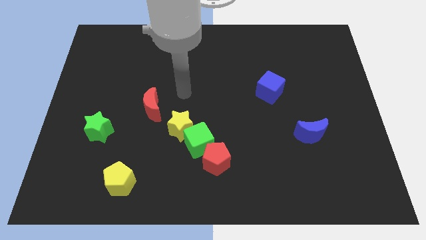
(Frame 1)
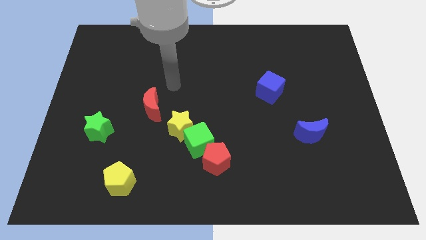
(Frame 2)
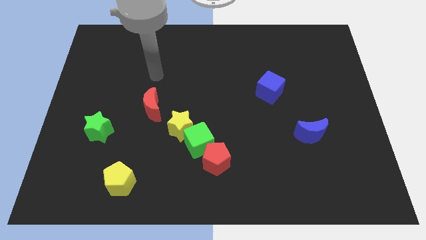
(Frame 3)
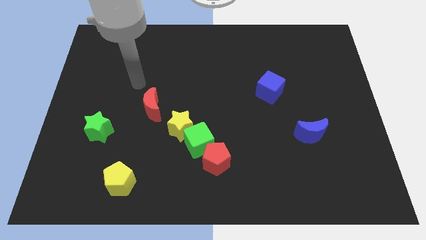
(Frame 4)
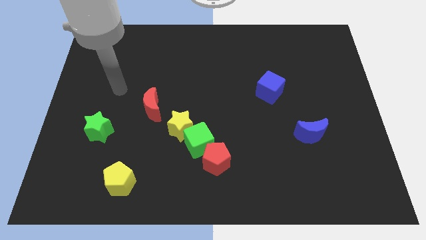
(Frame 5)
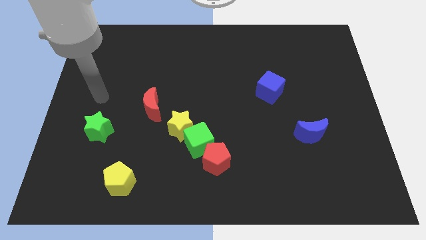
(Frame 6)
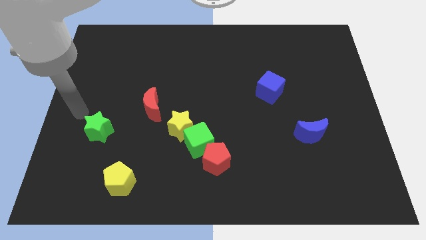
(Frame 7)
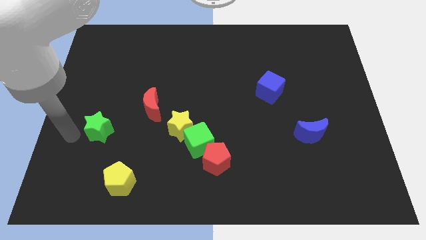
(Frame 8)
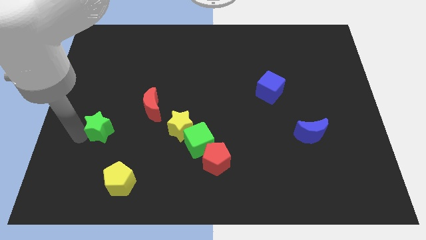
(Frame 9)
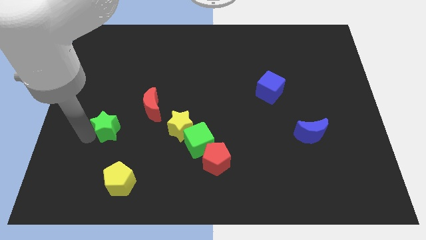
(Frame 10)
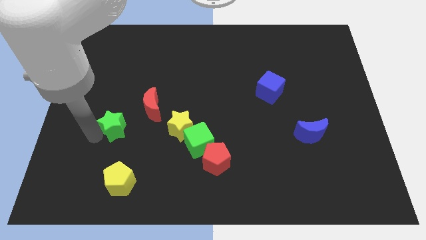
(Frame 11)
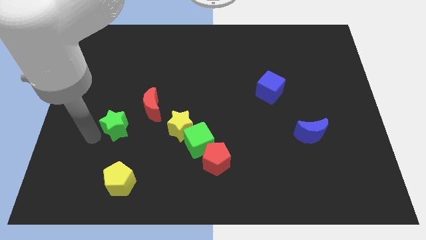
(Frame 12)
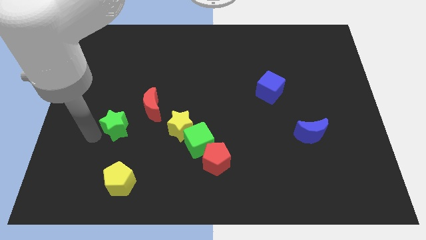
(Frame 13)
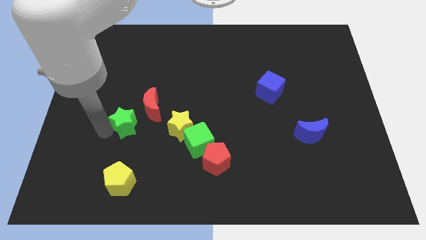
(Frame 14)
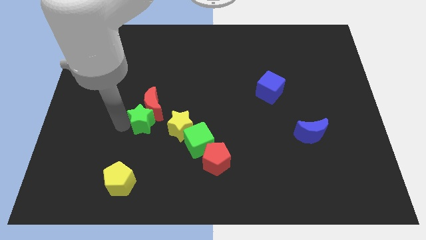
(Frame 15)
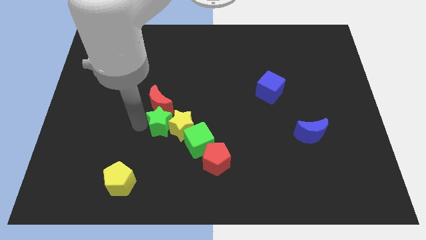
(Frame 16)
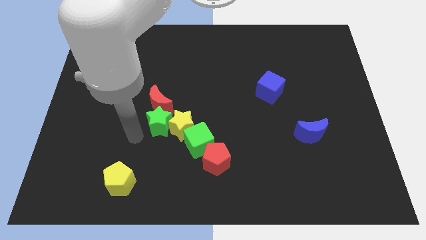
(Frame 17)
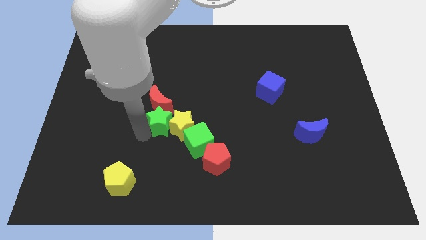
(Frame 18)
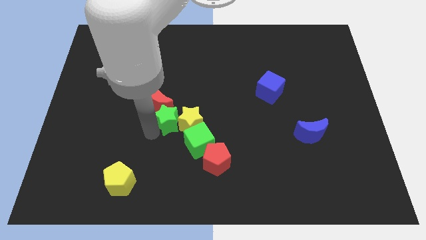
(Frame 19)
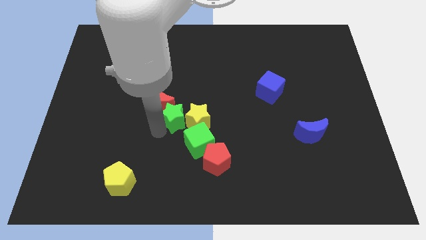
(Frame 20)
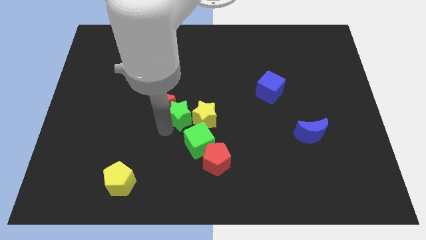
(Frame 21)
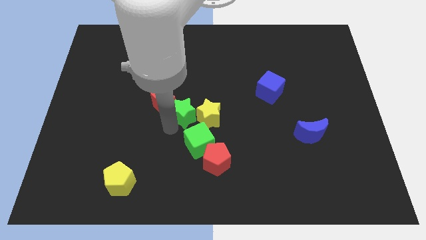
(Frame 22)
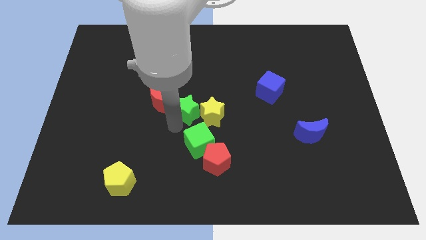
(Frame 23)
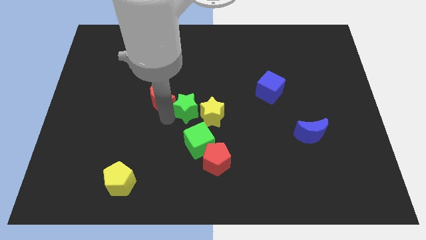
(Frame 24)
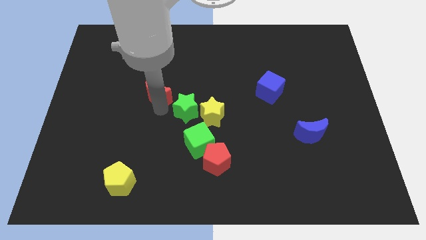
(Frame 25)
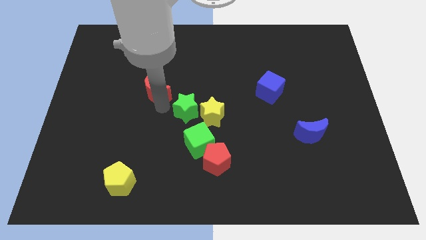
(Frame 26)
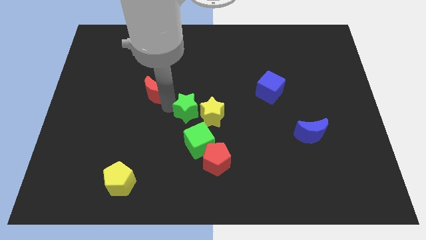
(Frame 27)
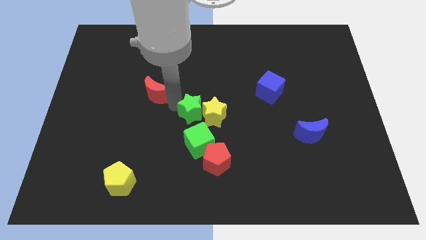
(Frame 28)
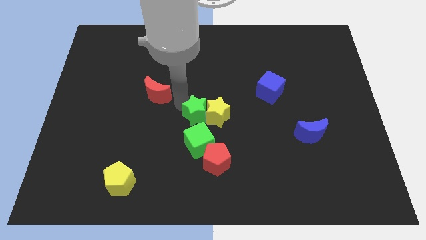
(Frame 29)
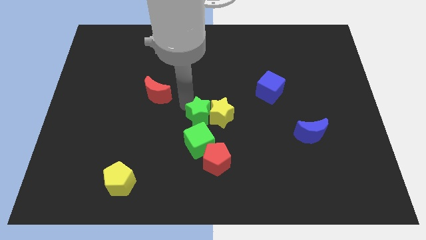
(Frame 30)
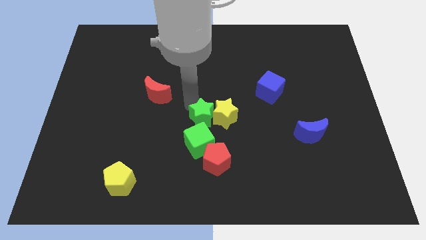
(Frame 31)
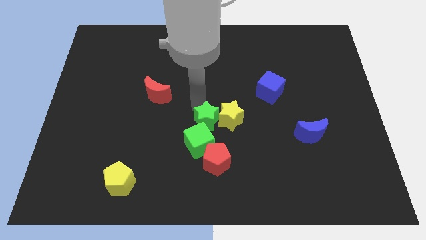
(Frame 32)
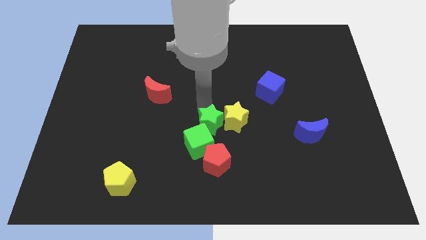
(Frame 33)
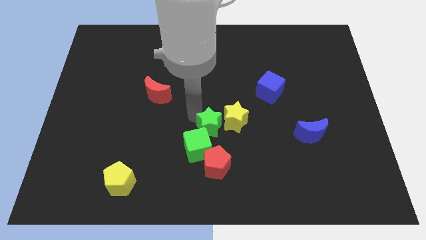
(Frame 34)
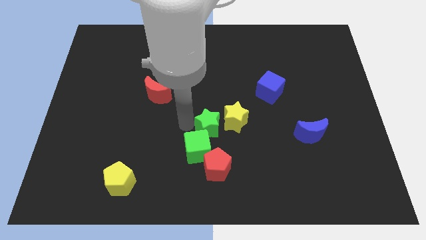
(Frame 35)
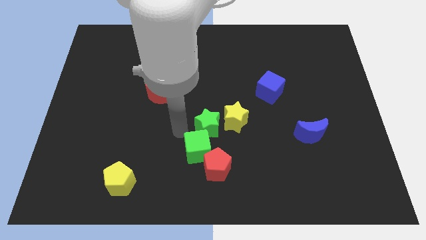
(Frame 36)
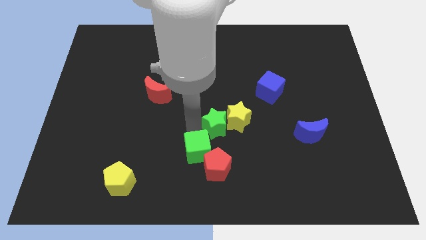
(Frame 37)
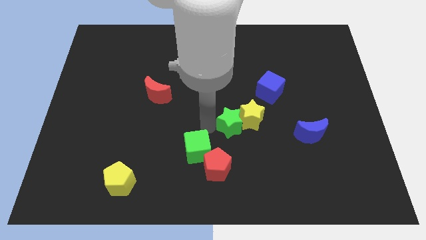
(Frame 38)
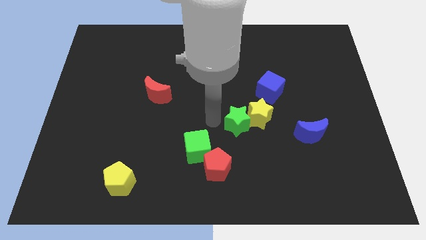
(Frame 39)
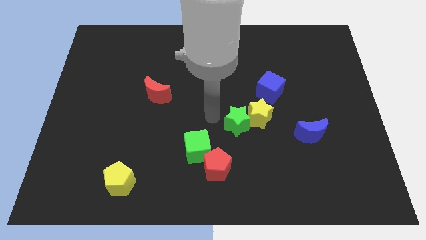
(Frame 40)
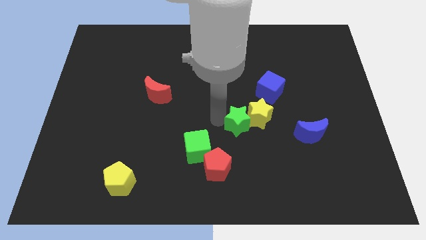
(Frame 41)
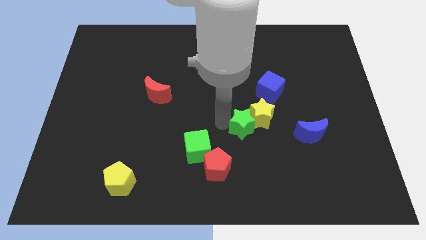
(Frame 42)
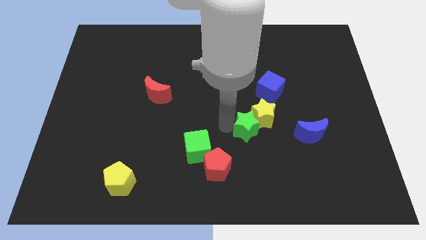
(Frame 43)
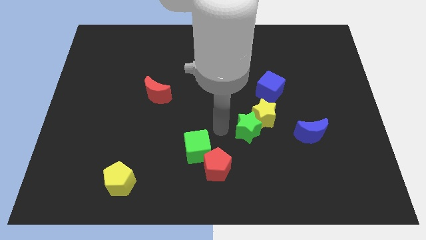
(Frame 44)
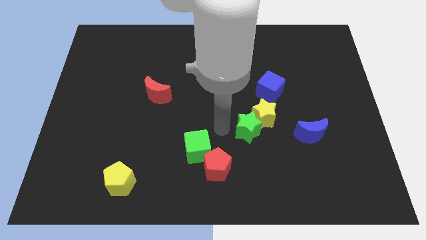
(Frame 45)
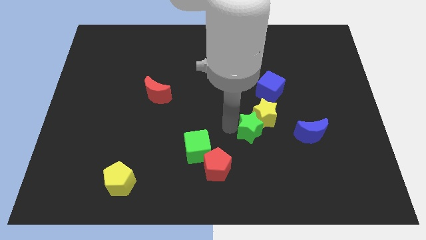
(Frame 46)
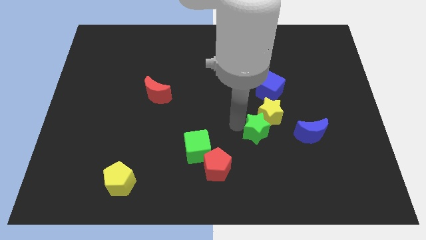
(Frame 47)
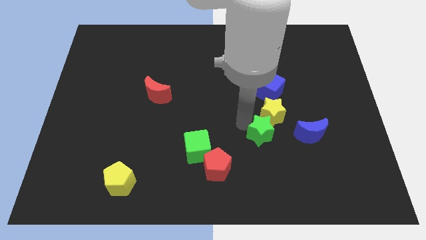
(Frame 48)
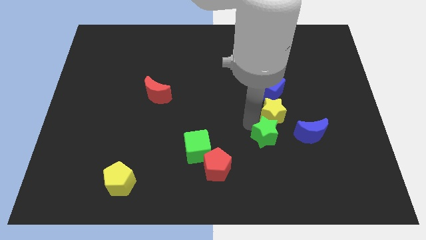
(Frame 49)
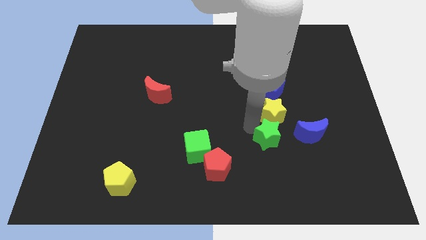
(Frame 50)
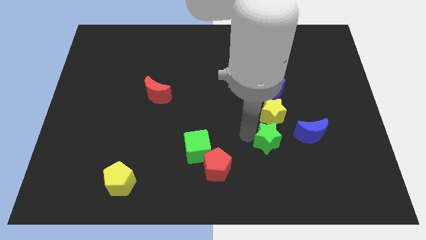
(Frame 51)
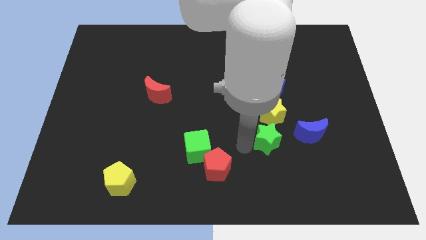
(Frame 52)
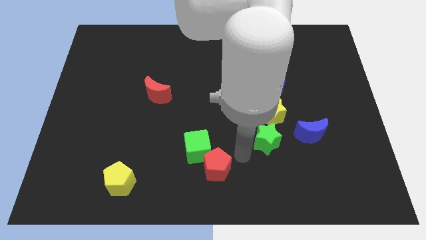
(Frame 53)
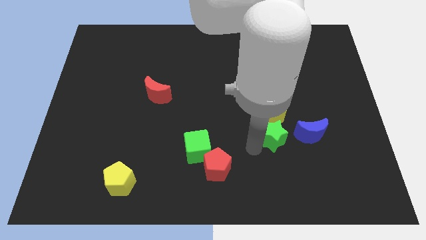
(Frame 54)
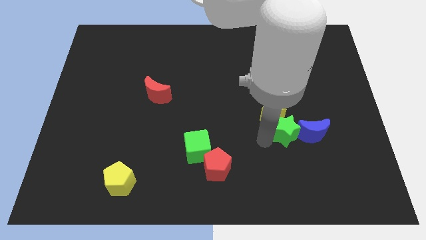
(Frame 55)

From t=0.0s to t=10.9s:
push the green star close to the blue moon

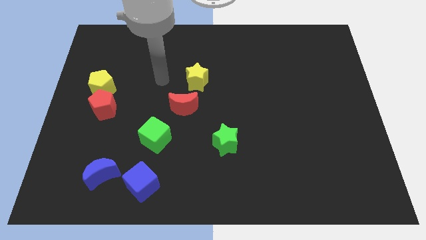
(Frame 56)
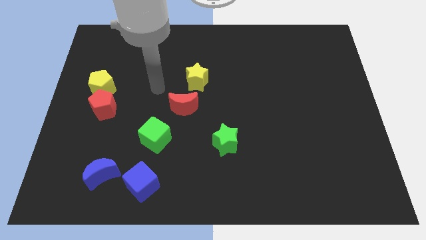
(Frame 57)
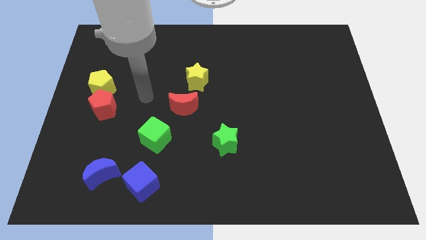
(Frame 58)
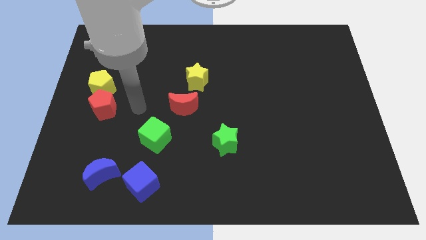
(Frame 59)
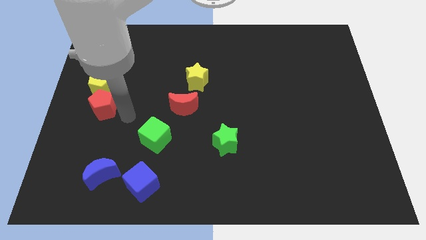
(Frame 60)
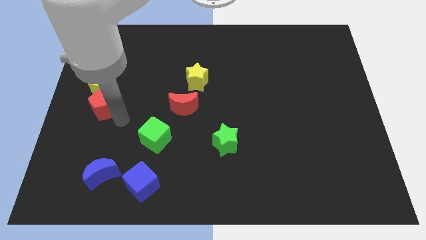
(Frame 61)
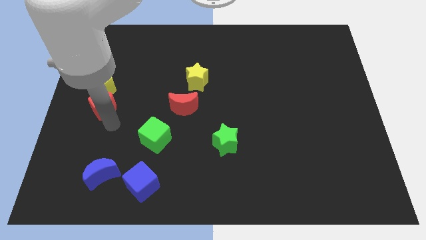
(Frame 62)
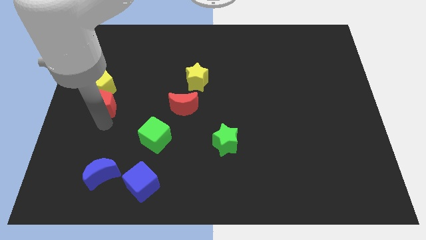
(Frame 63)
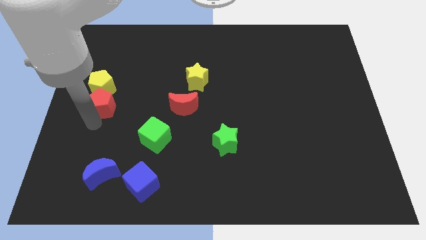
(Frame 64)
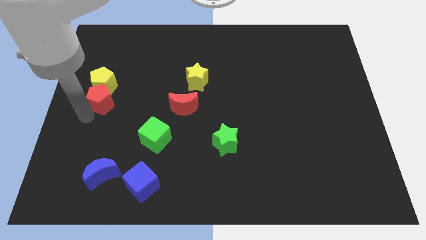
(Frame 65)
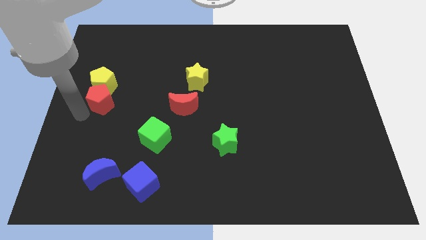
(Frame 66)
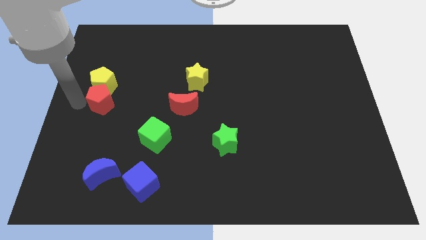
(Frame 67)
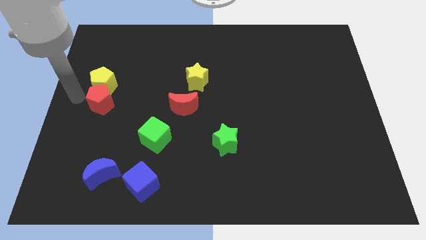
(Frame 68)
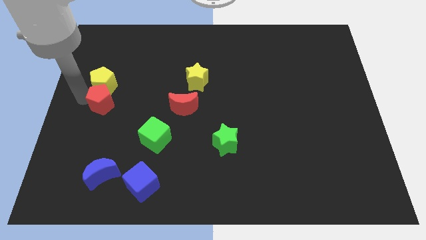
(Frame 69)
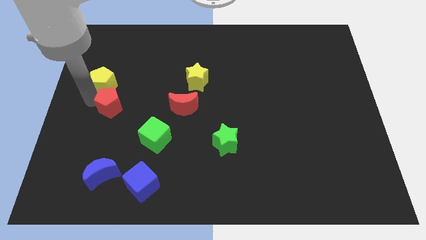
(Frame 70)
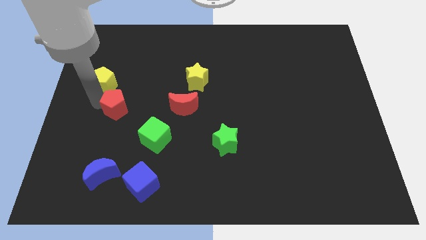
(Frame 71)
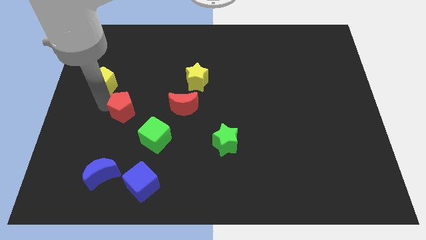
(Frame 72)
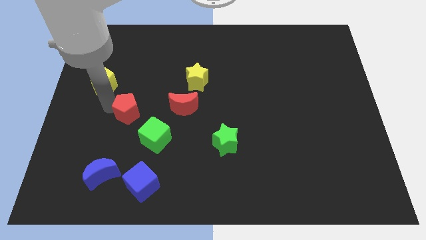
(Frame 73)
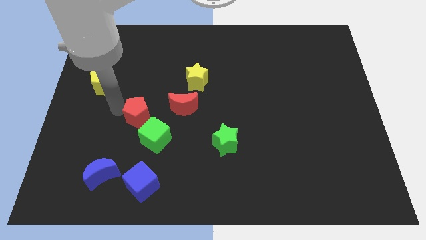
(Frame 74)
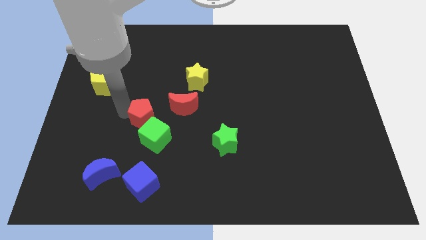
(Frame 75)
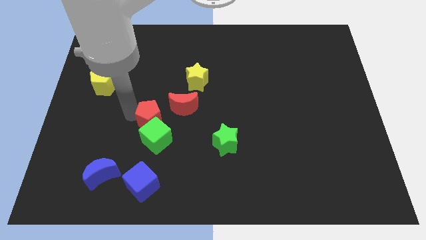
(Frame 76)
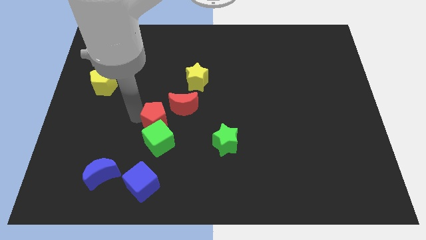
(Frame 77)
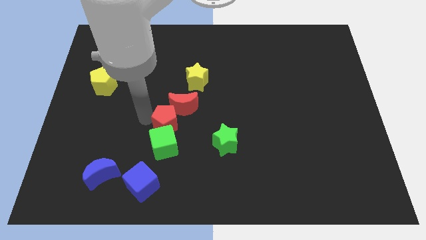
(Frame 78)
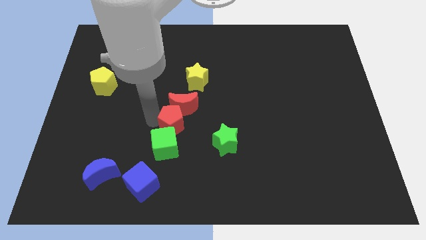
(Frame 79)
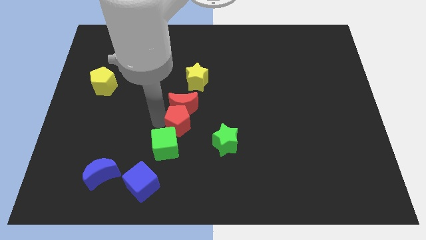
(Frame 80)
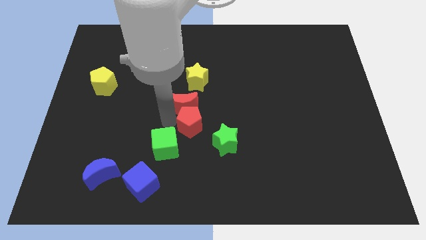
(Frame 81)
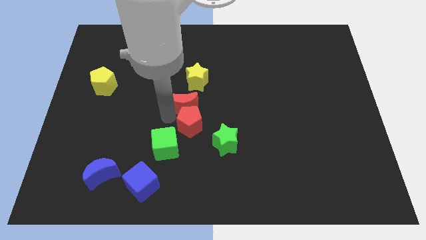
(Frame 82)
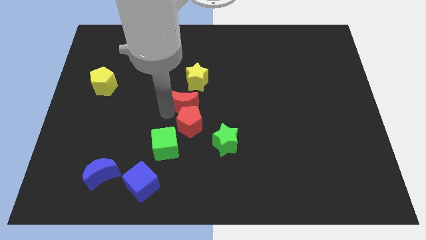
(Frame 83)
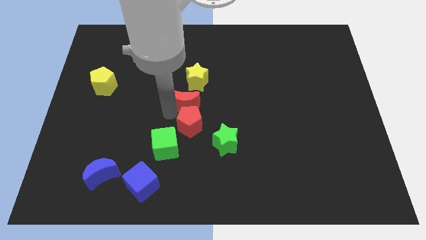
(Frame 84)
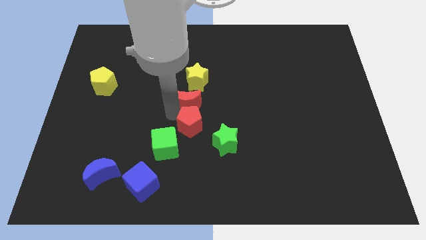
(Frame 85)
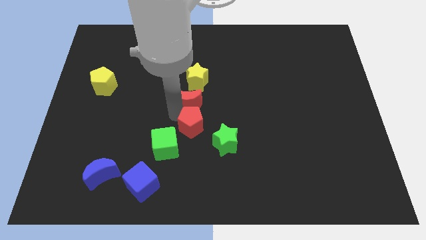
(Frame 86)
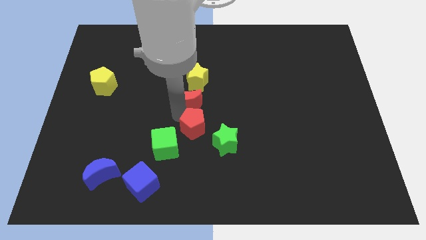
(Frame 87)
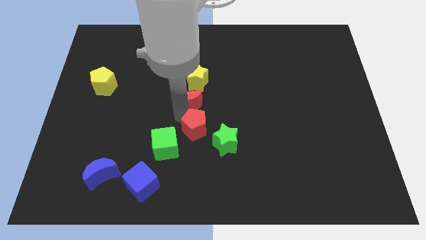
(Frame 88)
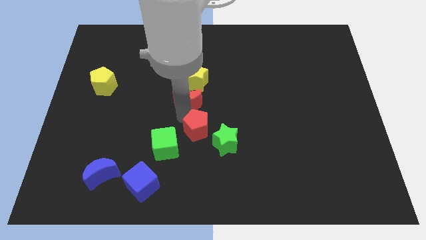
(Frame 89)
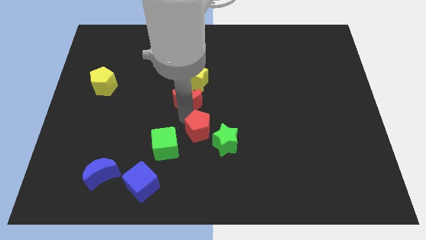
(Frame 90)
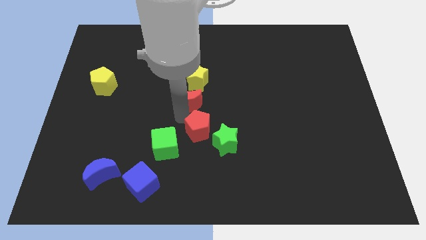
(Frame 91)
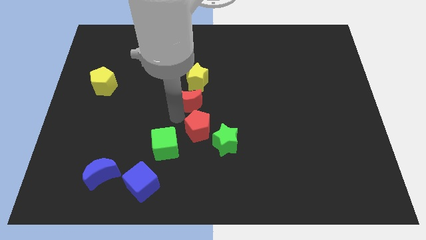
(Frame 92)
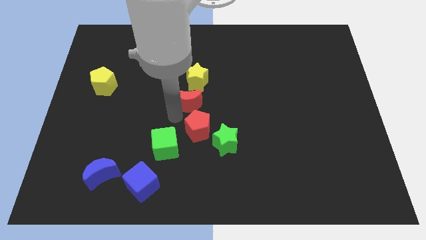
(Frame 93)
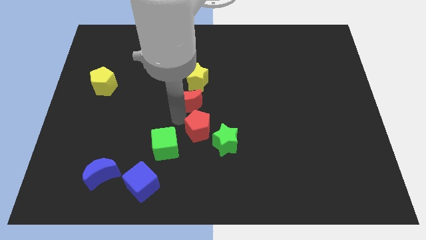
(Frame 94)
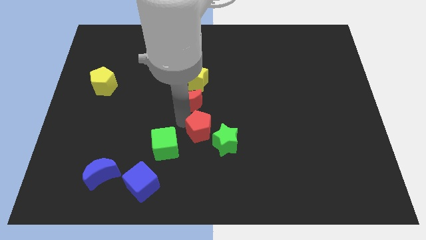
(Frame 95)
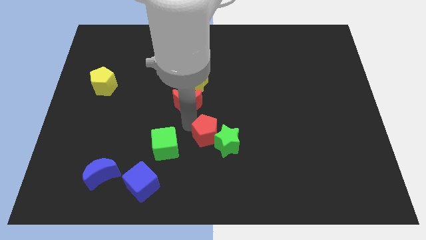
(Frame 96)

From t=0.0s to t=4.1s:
put the red pentagon close to the green star
